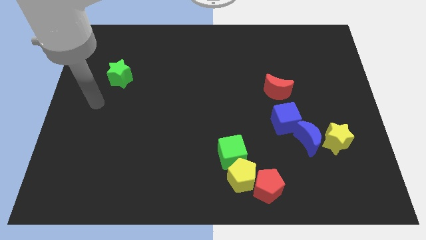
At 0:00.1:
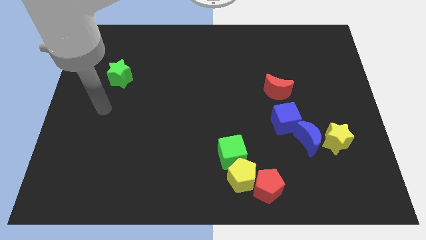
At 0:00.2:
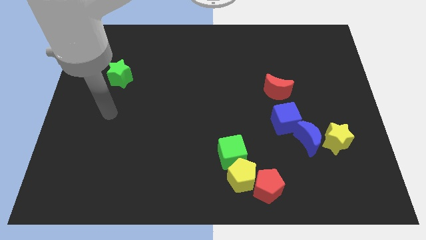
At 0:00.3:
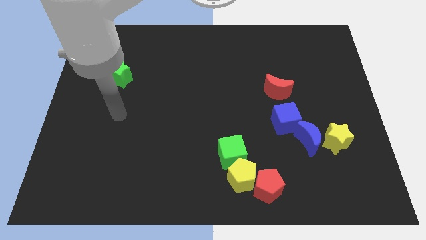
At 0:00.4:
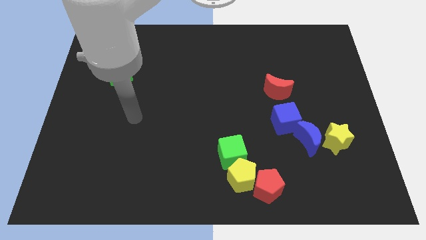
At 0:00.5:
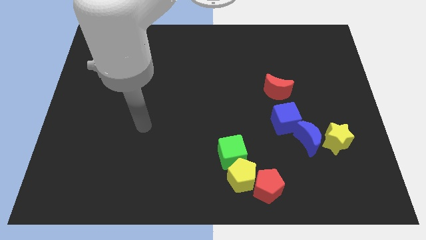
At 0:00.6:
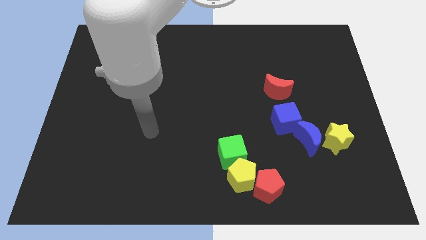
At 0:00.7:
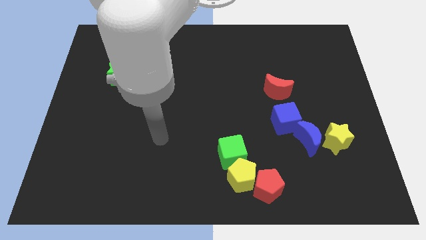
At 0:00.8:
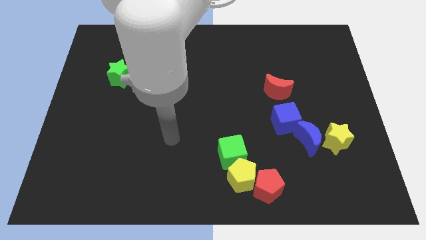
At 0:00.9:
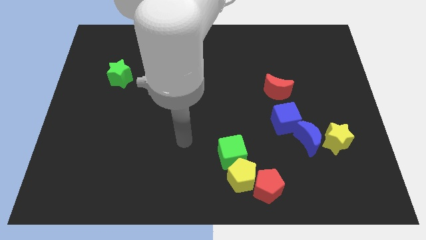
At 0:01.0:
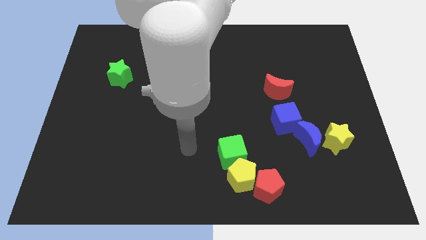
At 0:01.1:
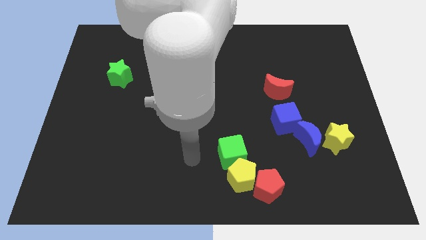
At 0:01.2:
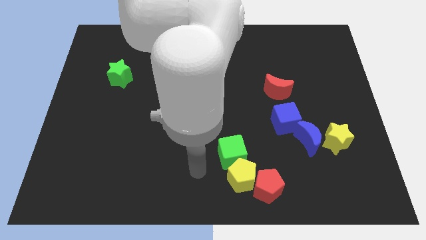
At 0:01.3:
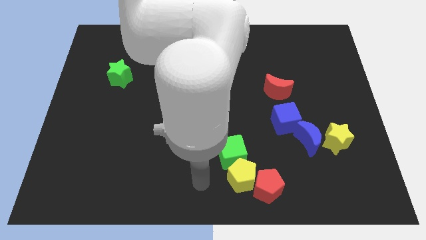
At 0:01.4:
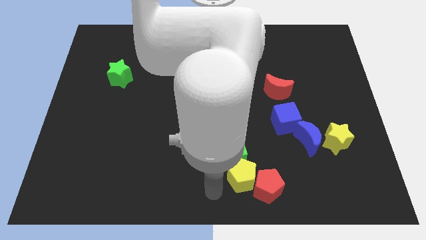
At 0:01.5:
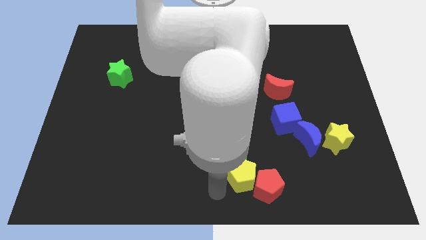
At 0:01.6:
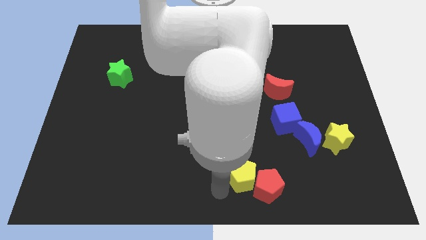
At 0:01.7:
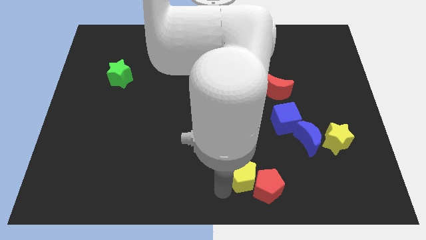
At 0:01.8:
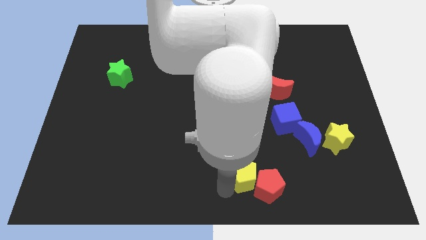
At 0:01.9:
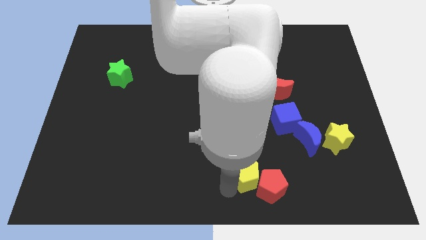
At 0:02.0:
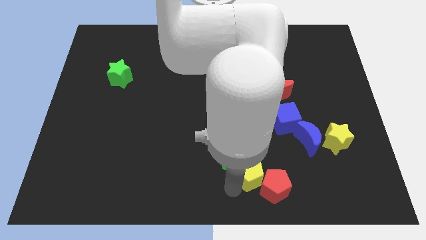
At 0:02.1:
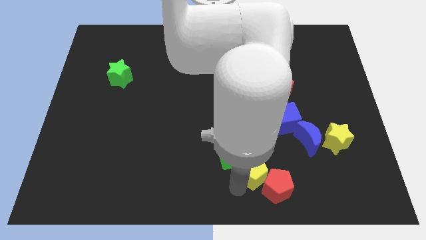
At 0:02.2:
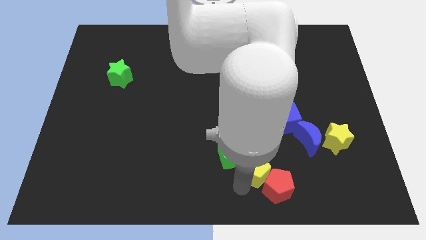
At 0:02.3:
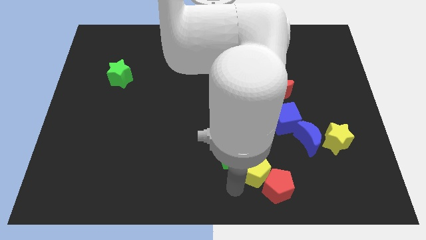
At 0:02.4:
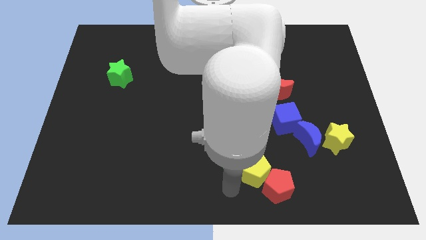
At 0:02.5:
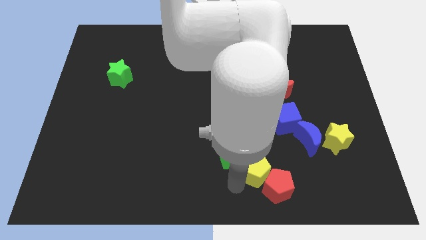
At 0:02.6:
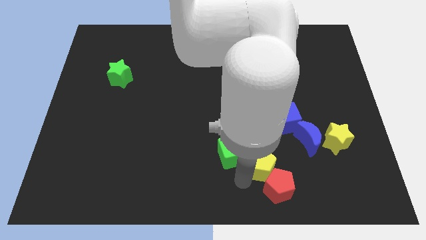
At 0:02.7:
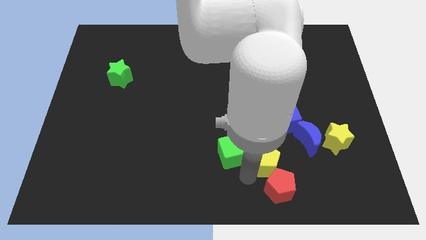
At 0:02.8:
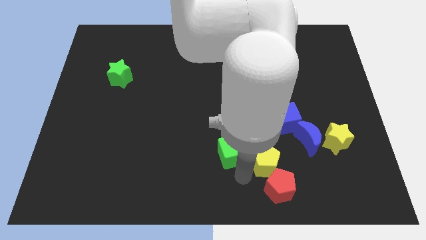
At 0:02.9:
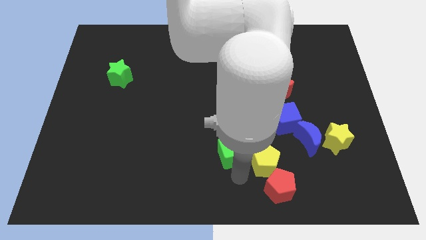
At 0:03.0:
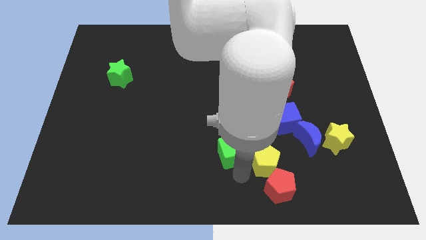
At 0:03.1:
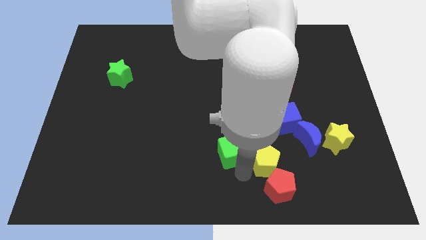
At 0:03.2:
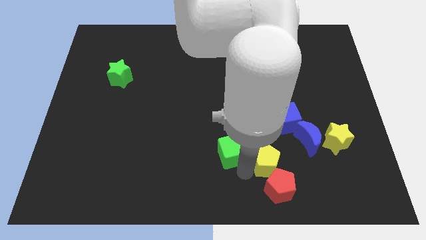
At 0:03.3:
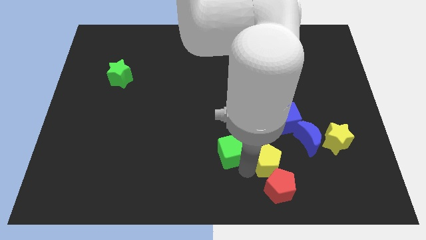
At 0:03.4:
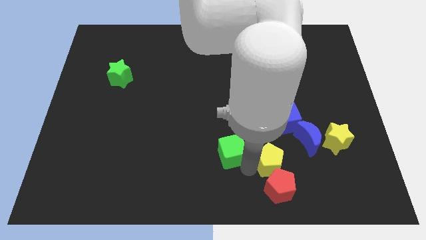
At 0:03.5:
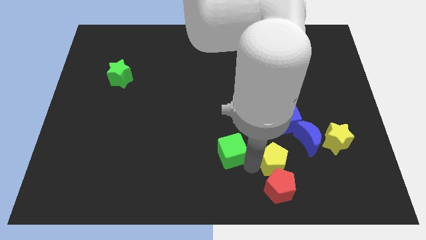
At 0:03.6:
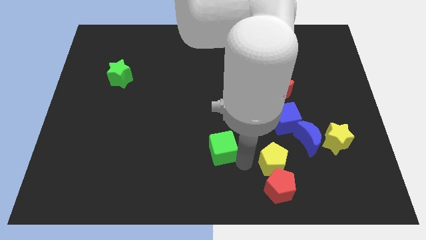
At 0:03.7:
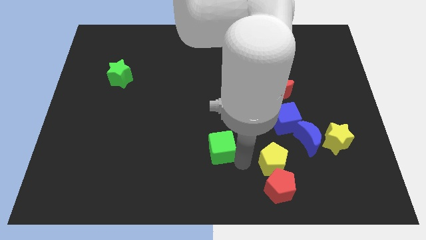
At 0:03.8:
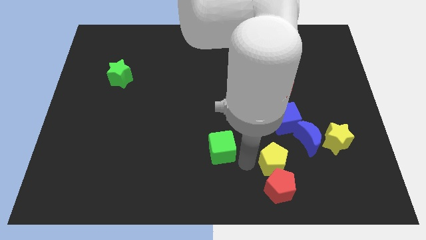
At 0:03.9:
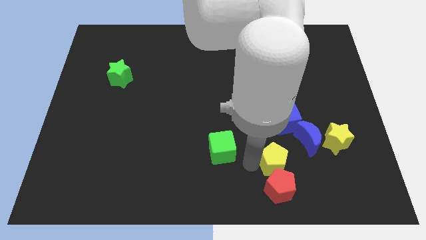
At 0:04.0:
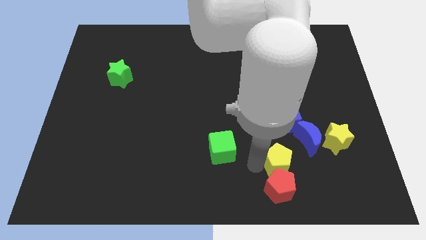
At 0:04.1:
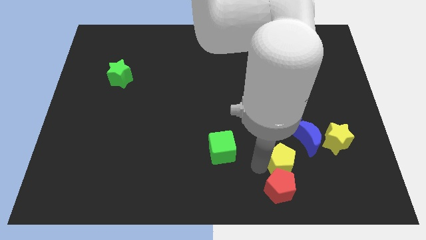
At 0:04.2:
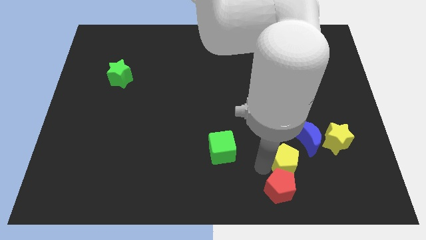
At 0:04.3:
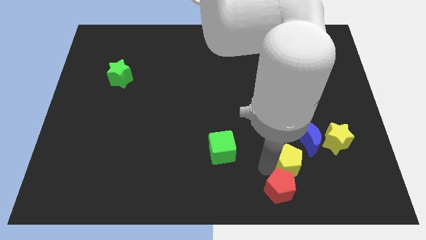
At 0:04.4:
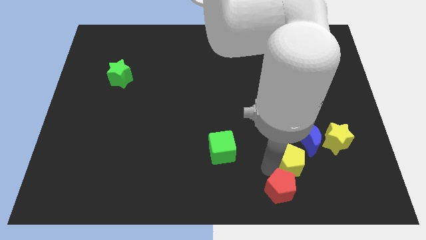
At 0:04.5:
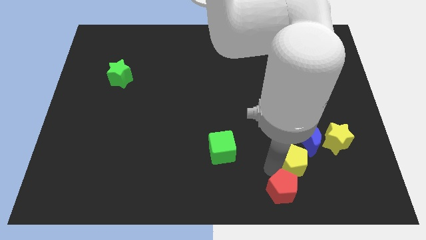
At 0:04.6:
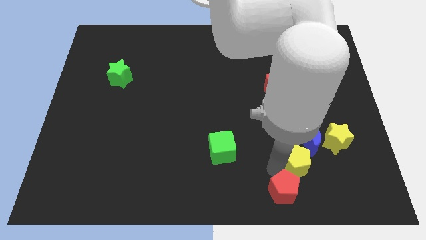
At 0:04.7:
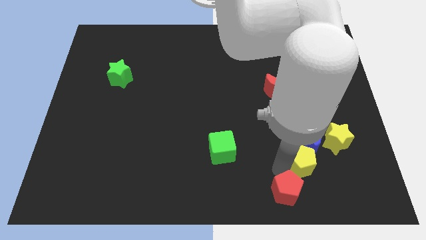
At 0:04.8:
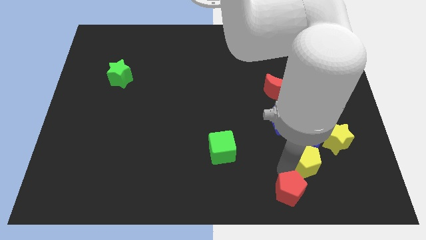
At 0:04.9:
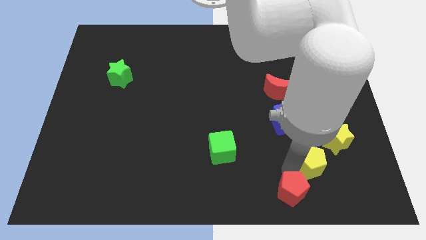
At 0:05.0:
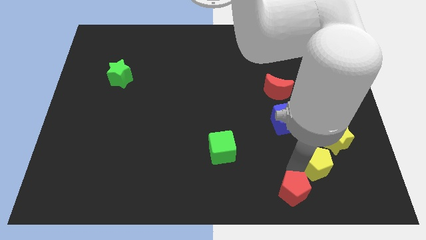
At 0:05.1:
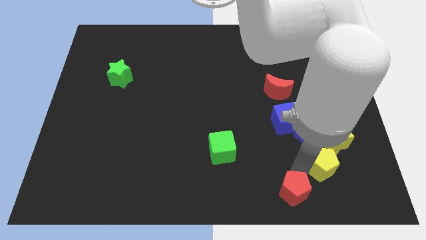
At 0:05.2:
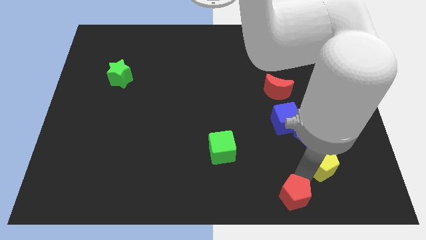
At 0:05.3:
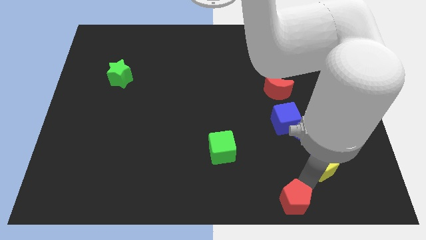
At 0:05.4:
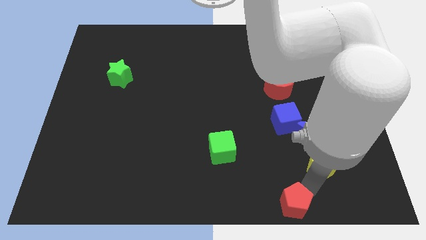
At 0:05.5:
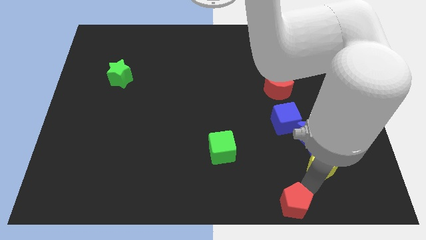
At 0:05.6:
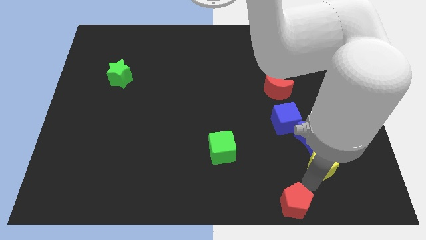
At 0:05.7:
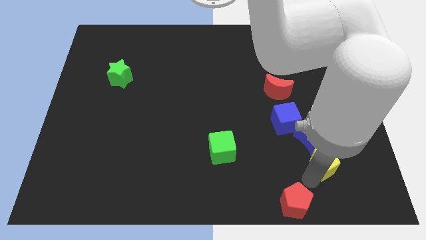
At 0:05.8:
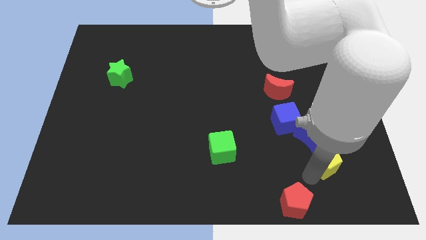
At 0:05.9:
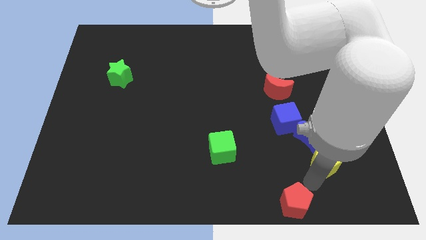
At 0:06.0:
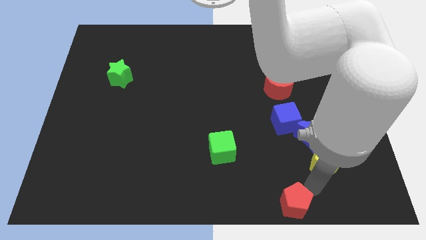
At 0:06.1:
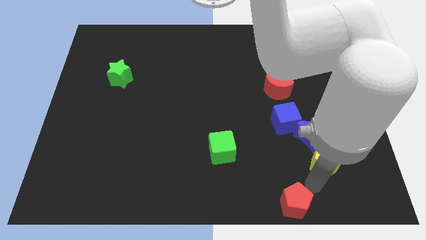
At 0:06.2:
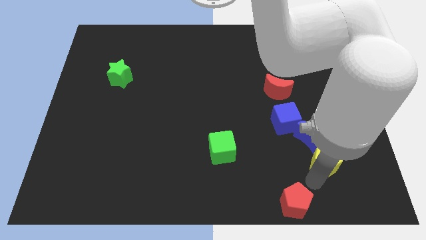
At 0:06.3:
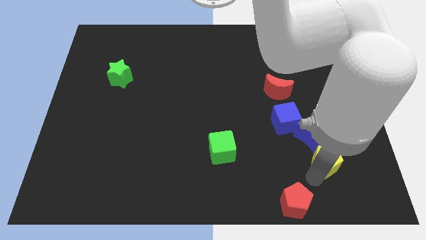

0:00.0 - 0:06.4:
slide the yellow pentagon towards the yellow star
